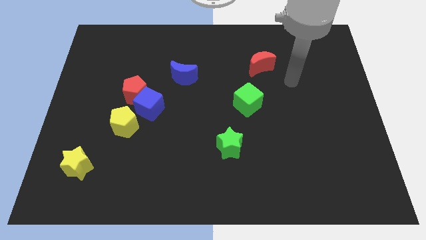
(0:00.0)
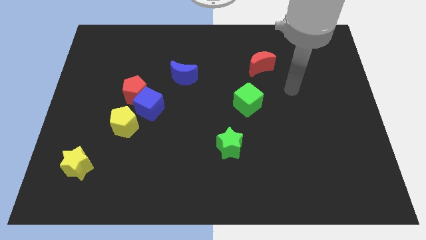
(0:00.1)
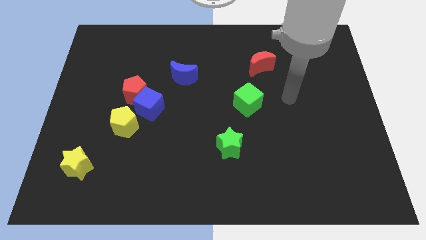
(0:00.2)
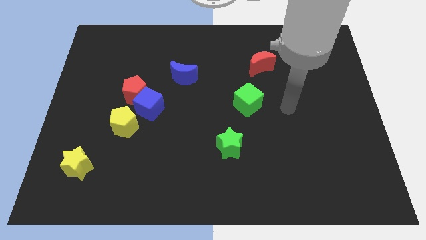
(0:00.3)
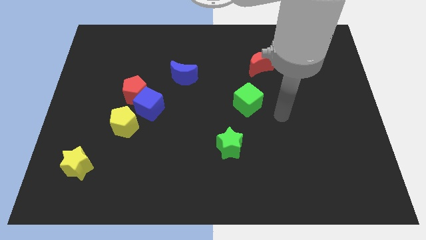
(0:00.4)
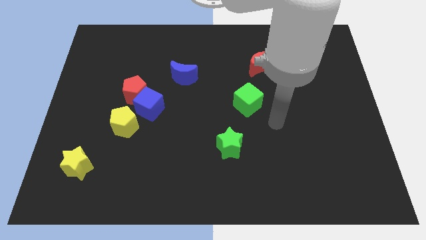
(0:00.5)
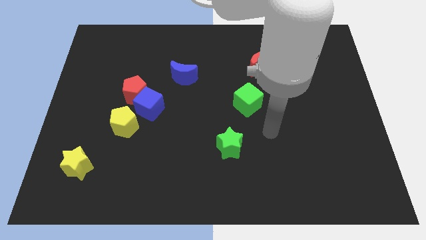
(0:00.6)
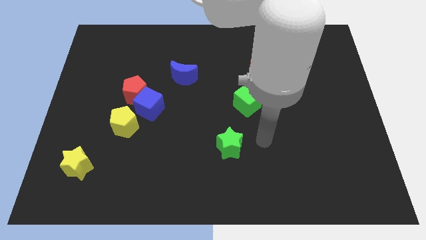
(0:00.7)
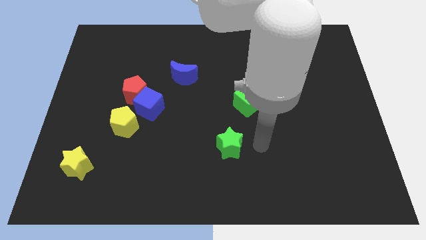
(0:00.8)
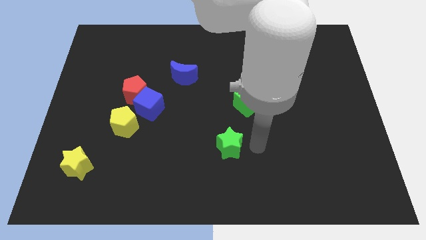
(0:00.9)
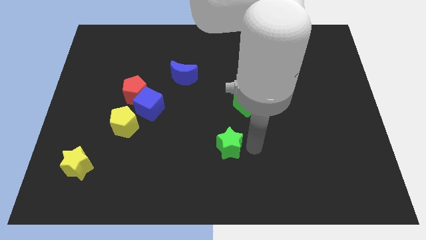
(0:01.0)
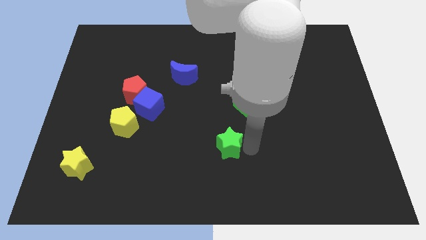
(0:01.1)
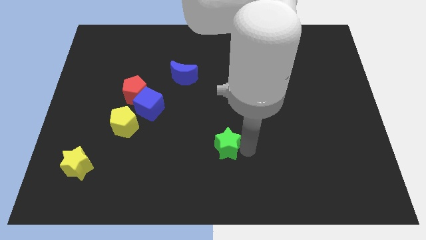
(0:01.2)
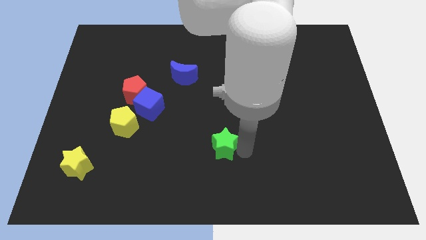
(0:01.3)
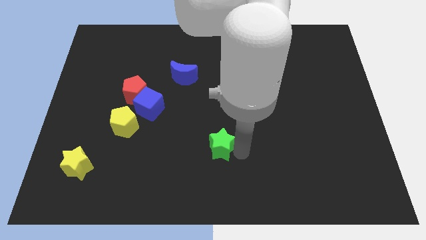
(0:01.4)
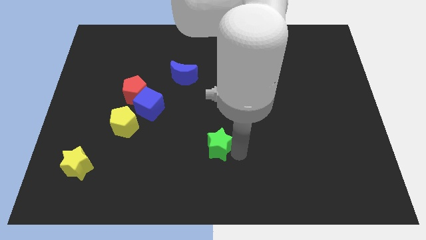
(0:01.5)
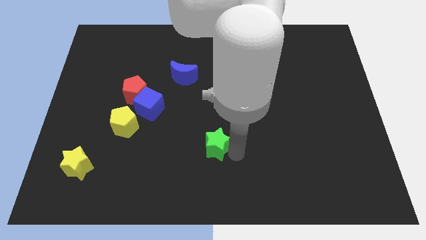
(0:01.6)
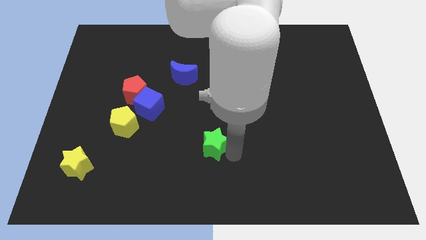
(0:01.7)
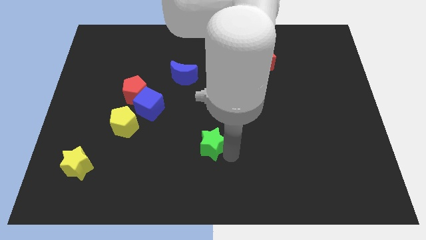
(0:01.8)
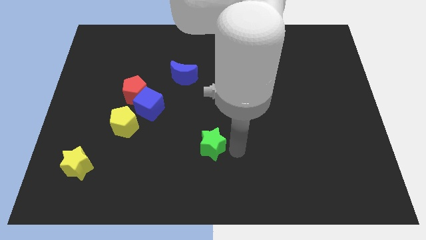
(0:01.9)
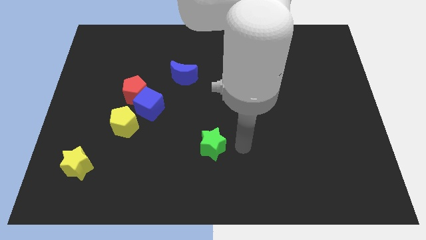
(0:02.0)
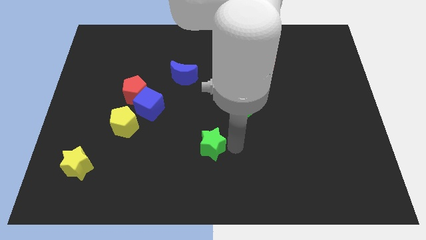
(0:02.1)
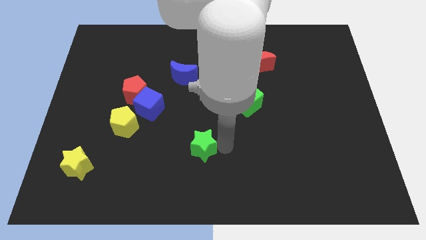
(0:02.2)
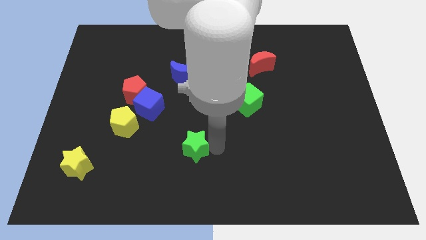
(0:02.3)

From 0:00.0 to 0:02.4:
move the green star a little left

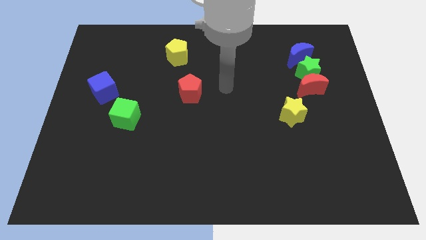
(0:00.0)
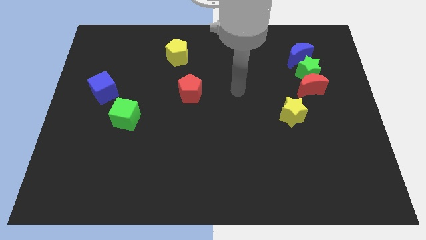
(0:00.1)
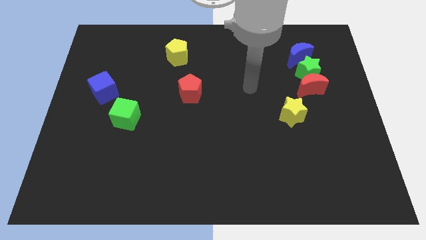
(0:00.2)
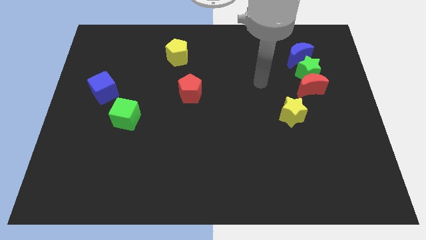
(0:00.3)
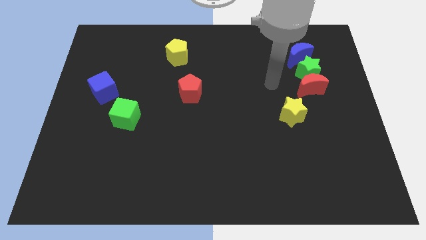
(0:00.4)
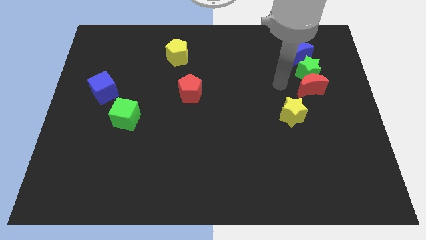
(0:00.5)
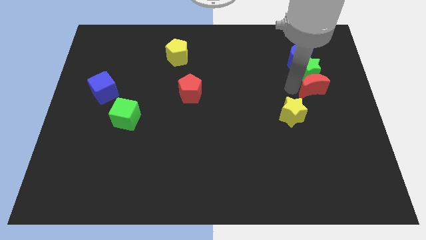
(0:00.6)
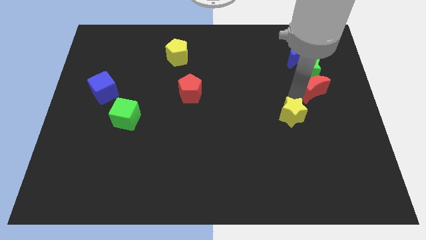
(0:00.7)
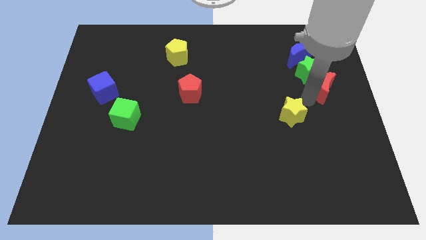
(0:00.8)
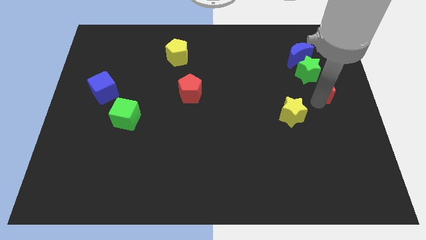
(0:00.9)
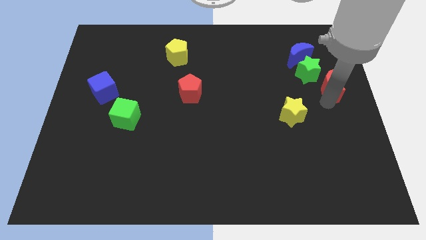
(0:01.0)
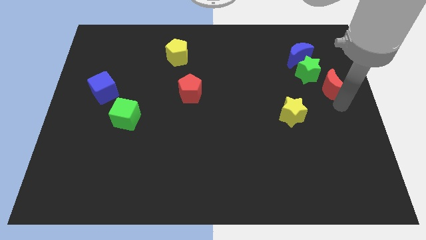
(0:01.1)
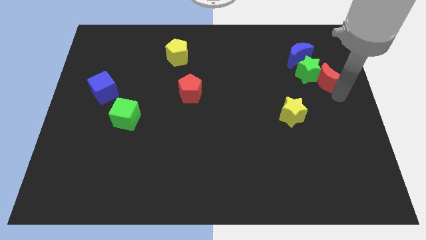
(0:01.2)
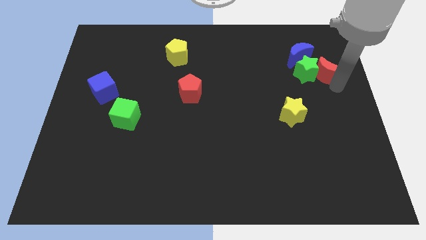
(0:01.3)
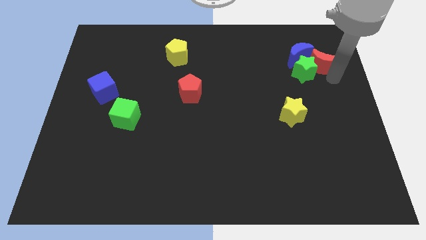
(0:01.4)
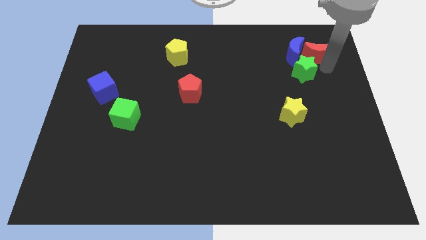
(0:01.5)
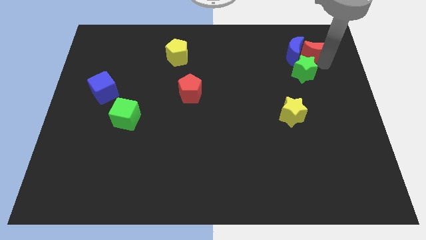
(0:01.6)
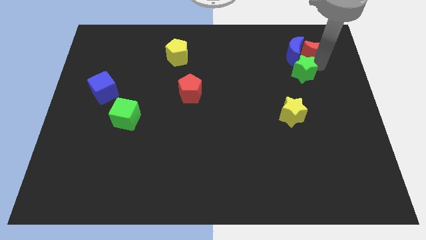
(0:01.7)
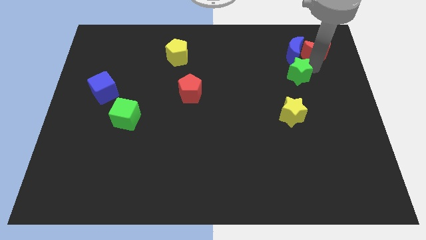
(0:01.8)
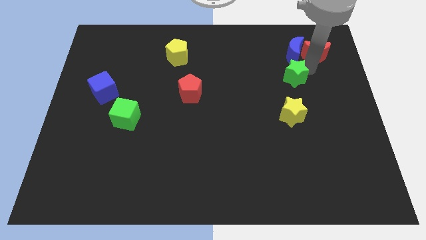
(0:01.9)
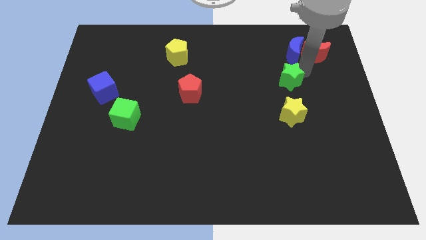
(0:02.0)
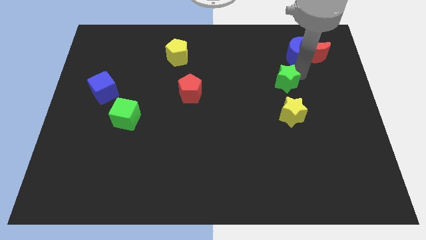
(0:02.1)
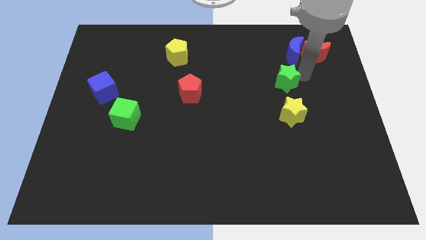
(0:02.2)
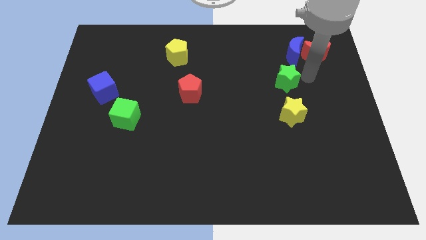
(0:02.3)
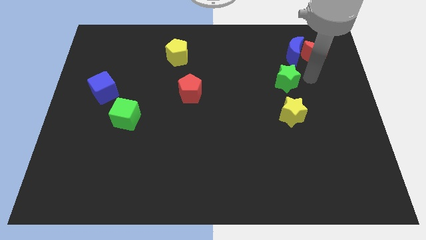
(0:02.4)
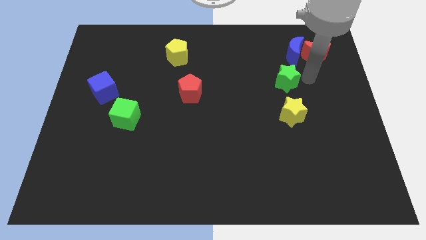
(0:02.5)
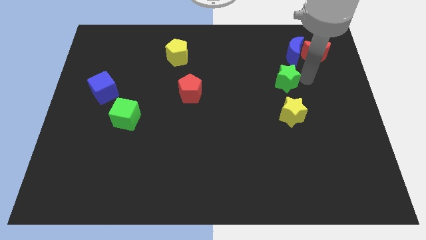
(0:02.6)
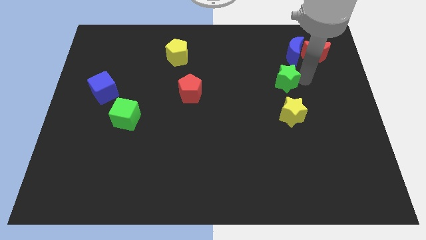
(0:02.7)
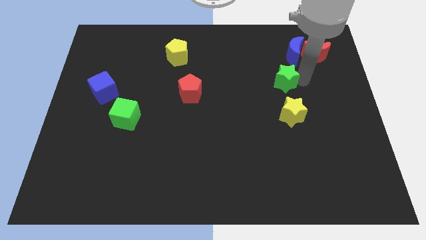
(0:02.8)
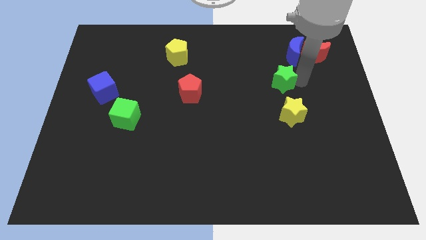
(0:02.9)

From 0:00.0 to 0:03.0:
slightly move the green star downwards and to the left

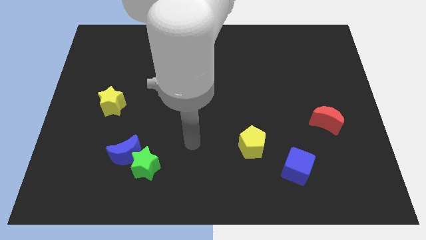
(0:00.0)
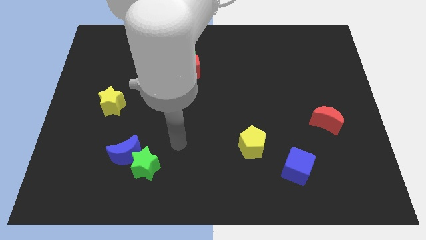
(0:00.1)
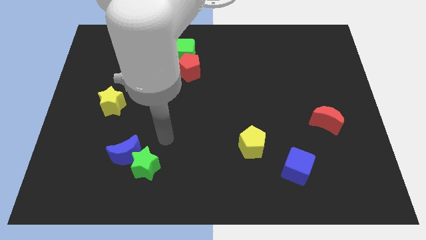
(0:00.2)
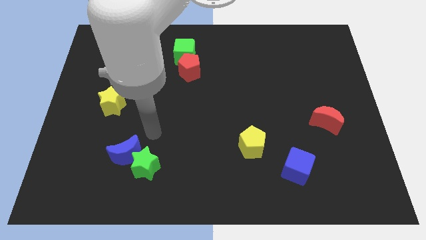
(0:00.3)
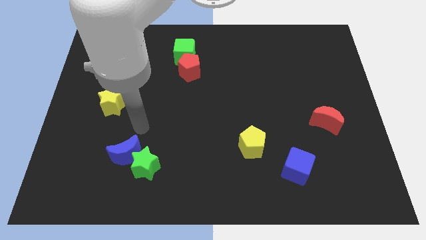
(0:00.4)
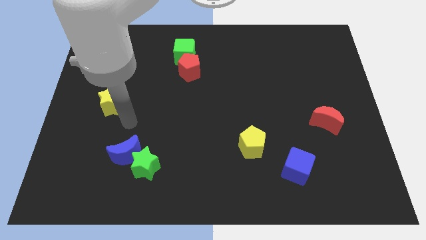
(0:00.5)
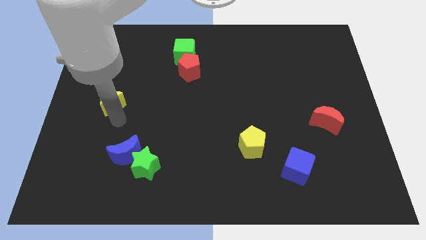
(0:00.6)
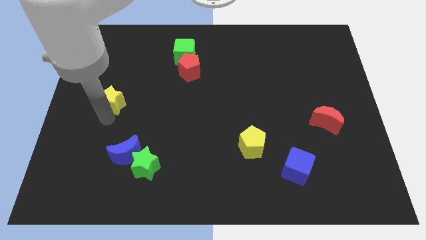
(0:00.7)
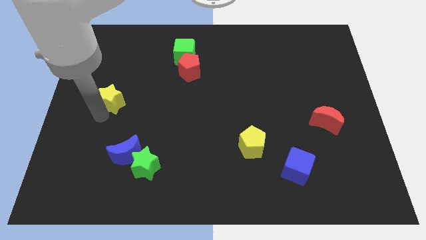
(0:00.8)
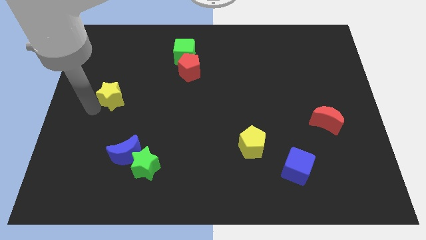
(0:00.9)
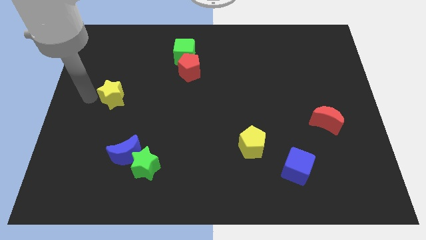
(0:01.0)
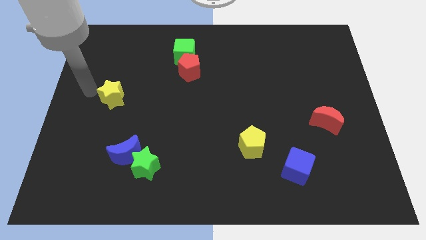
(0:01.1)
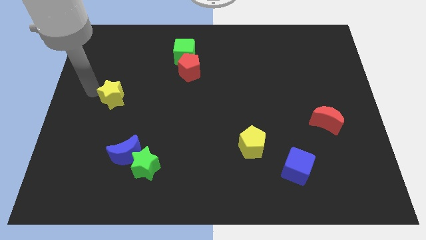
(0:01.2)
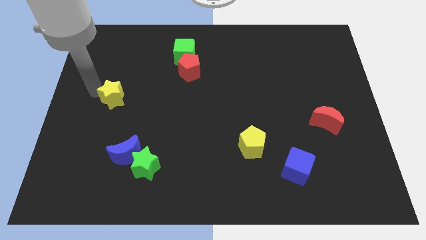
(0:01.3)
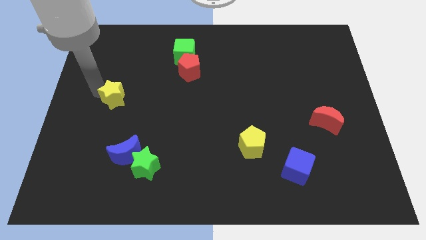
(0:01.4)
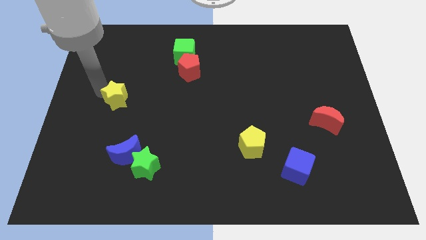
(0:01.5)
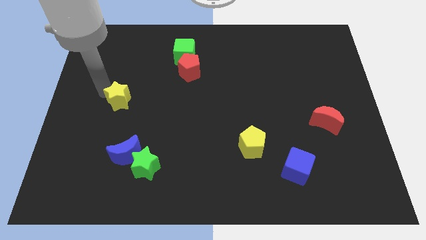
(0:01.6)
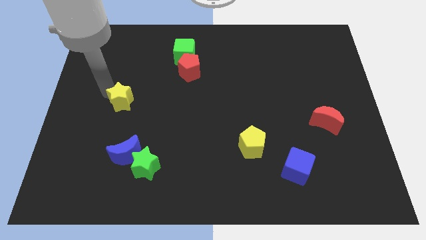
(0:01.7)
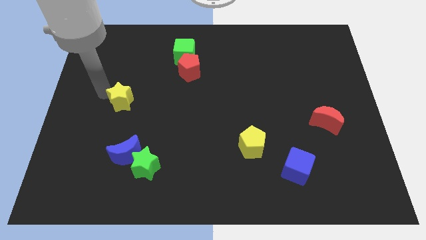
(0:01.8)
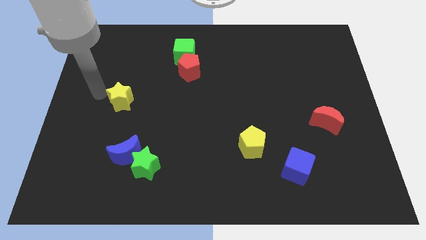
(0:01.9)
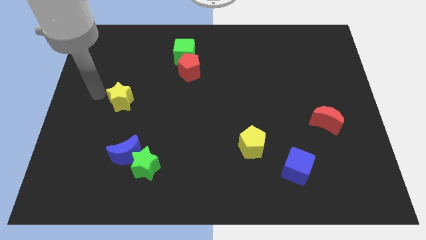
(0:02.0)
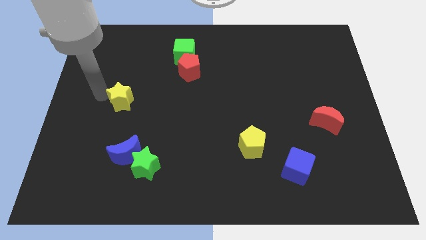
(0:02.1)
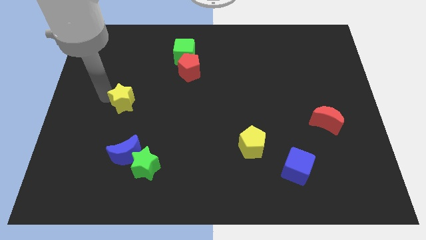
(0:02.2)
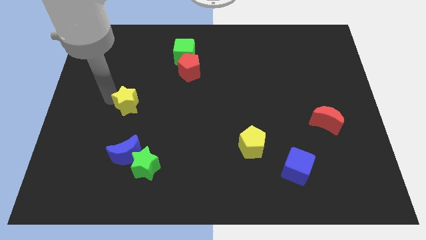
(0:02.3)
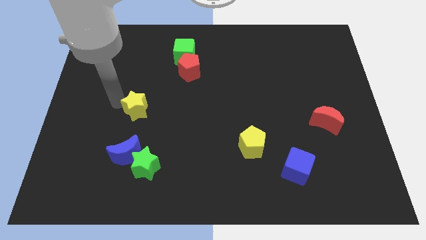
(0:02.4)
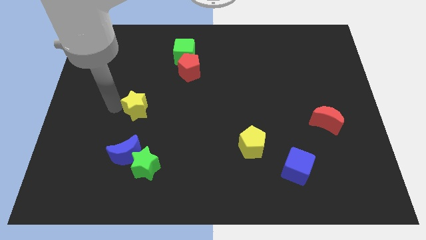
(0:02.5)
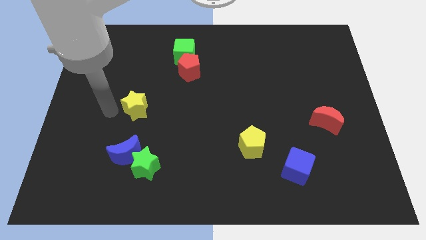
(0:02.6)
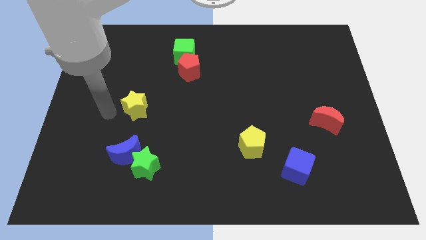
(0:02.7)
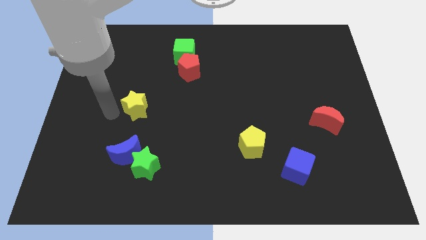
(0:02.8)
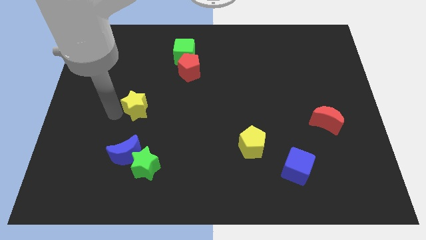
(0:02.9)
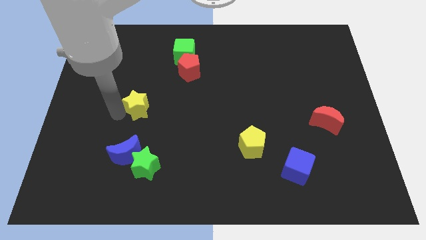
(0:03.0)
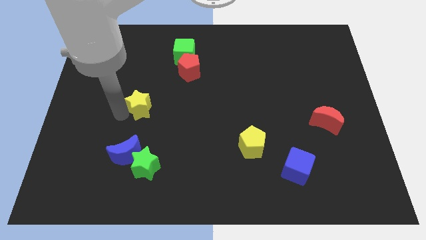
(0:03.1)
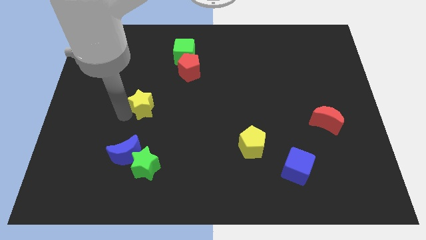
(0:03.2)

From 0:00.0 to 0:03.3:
slightly move the yellow star right
